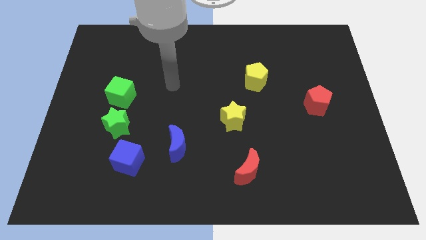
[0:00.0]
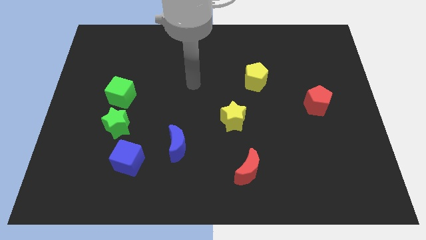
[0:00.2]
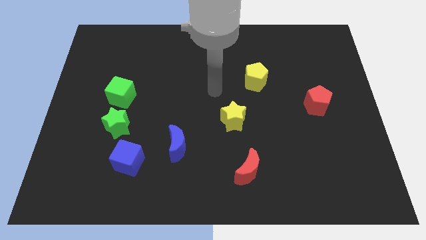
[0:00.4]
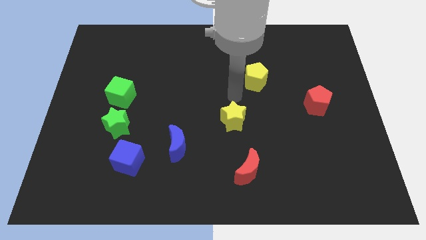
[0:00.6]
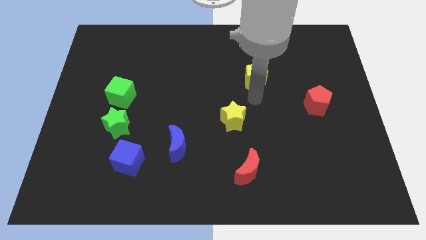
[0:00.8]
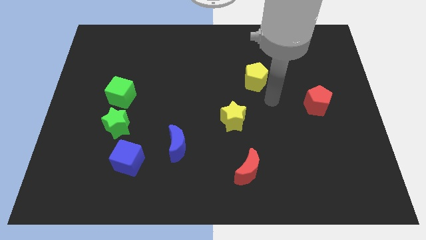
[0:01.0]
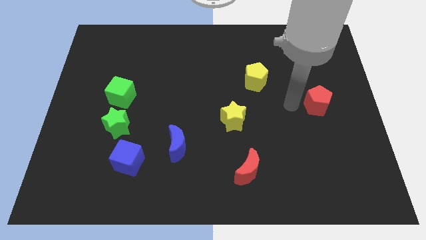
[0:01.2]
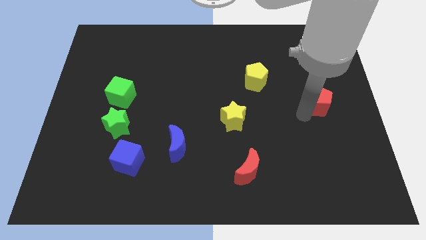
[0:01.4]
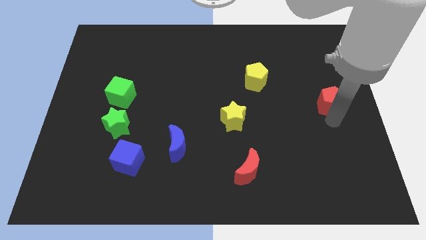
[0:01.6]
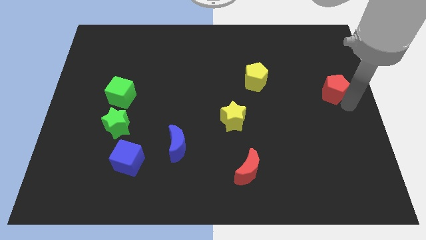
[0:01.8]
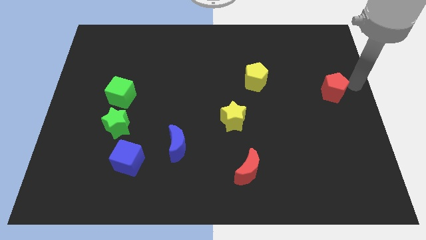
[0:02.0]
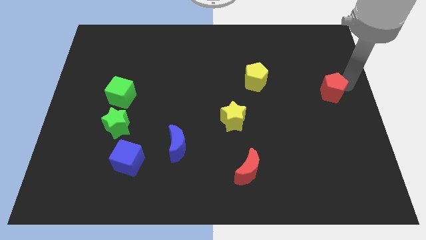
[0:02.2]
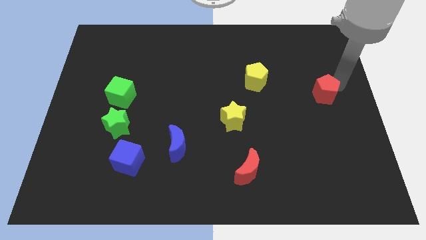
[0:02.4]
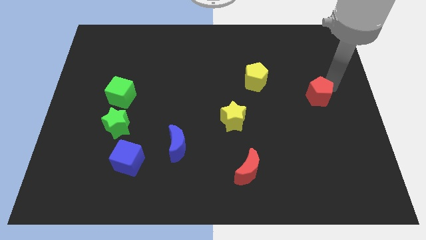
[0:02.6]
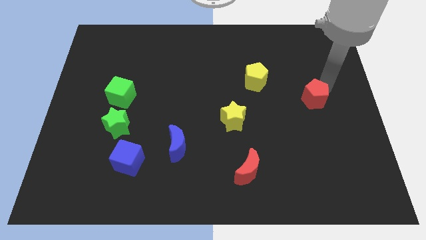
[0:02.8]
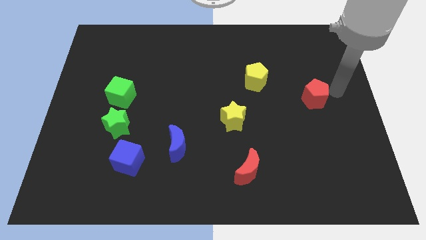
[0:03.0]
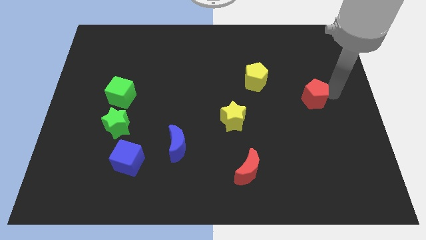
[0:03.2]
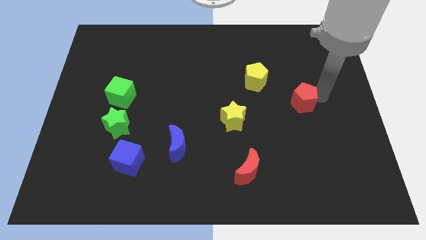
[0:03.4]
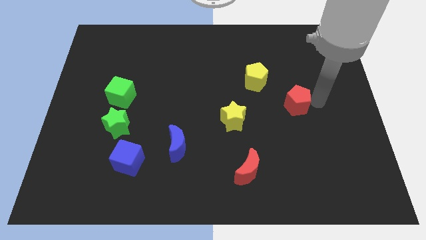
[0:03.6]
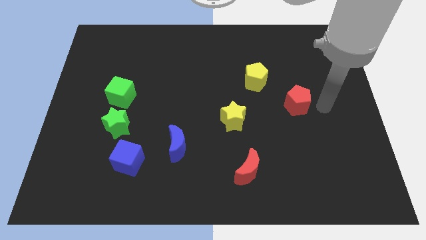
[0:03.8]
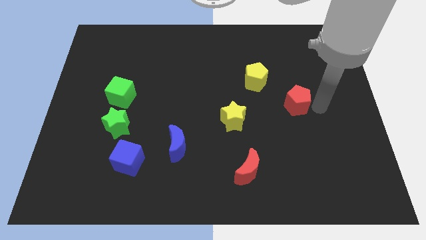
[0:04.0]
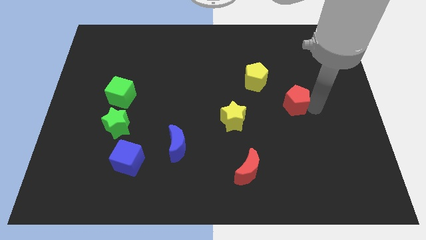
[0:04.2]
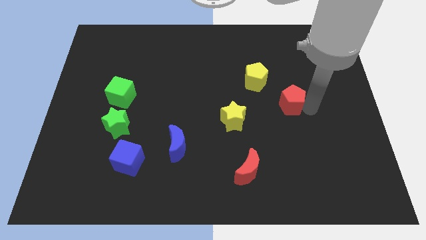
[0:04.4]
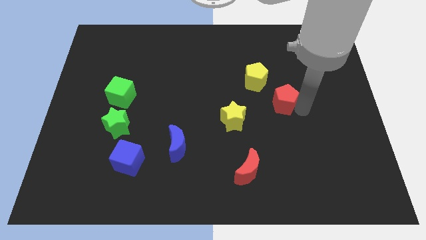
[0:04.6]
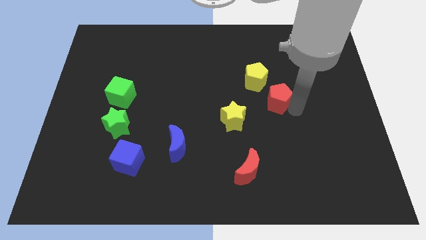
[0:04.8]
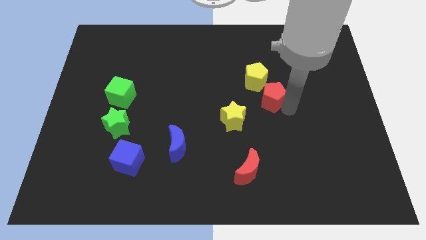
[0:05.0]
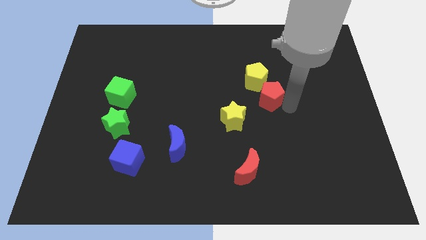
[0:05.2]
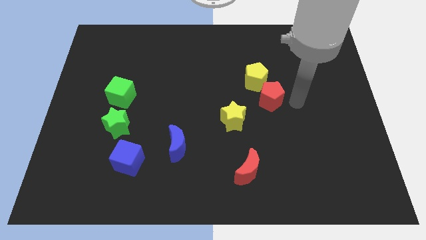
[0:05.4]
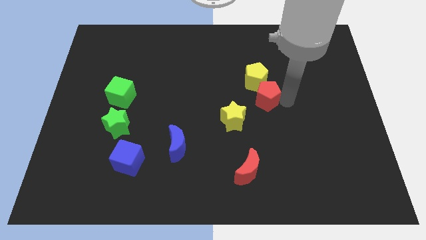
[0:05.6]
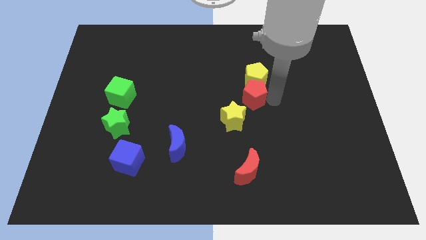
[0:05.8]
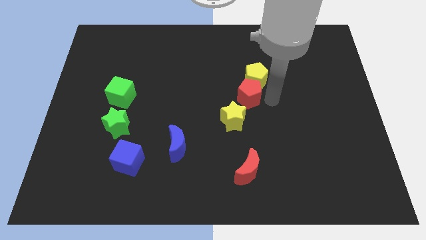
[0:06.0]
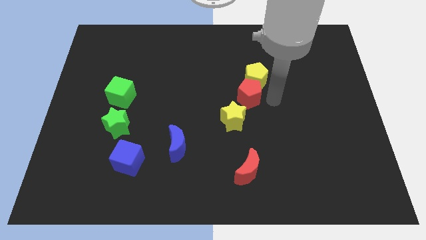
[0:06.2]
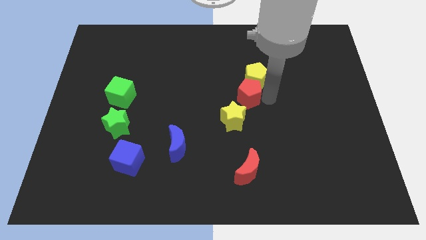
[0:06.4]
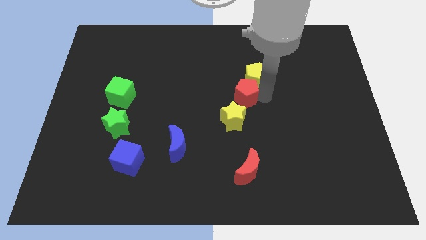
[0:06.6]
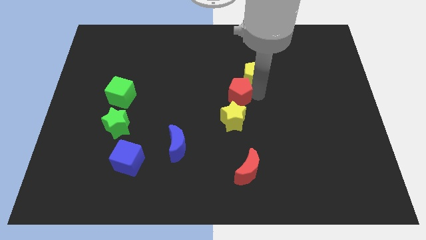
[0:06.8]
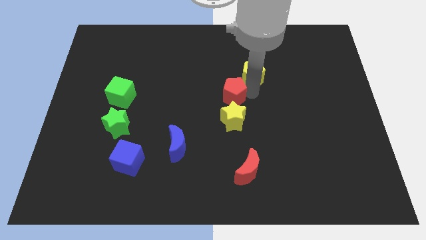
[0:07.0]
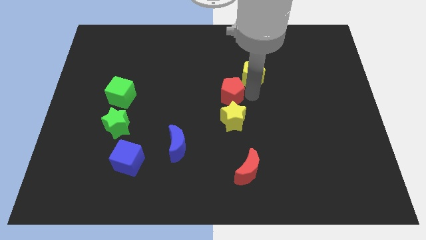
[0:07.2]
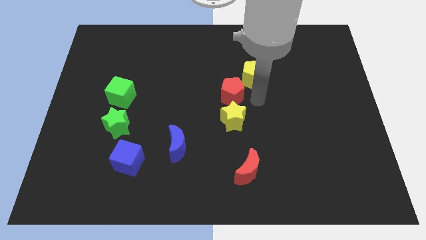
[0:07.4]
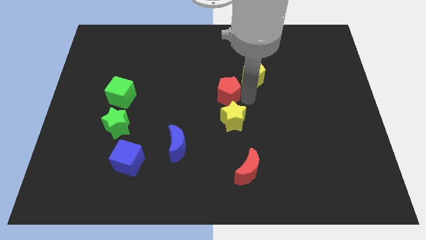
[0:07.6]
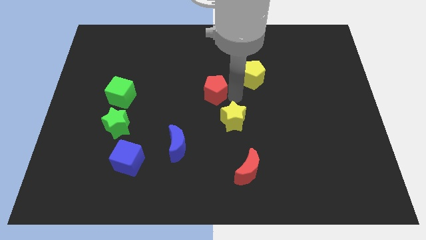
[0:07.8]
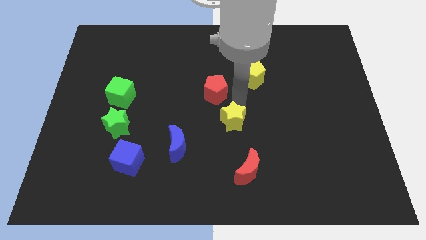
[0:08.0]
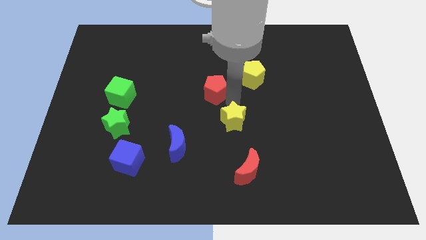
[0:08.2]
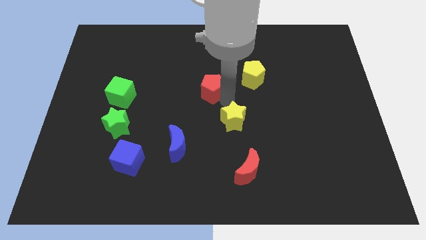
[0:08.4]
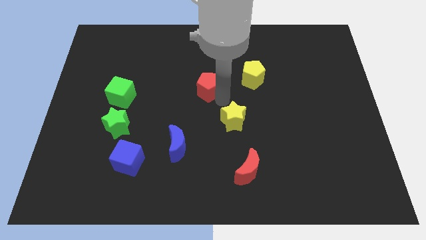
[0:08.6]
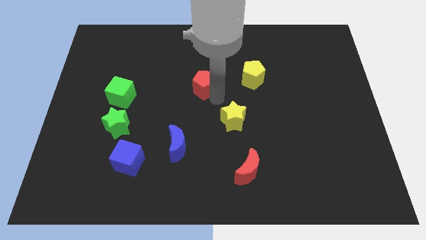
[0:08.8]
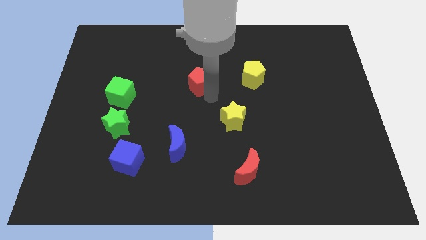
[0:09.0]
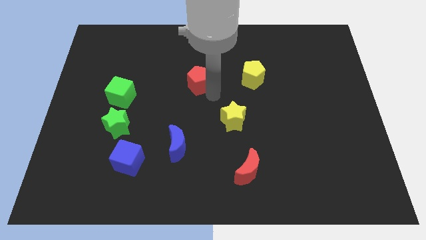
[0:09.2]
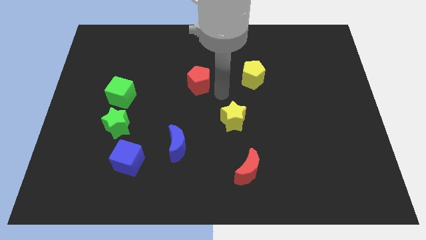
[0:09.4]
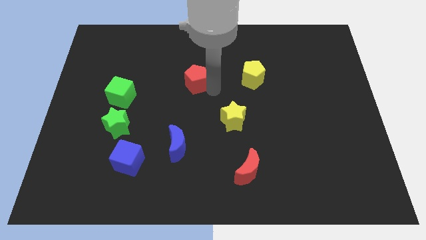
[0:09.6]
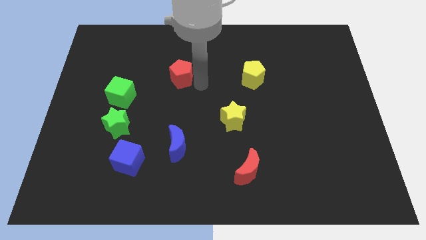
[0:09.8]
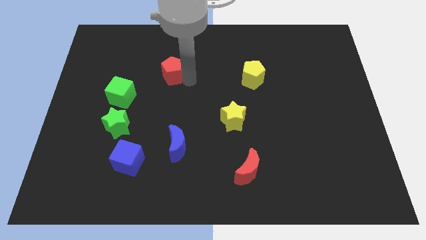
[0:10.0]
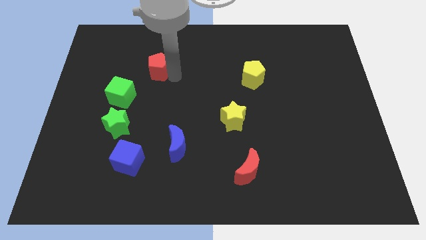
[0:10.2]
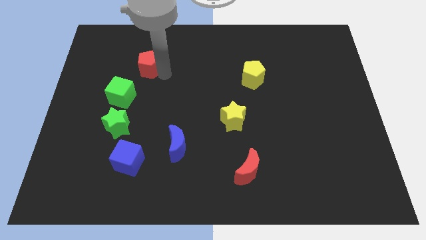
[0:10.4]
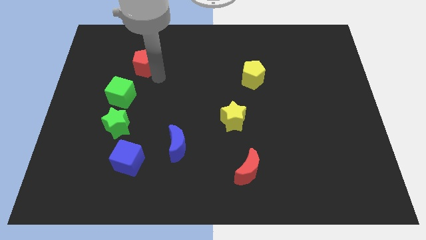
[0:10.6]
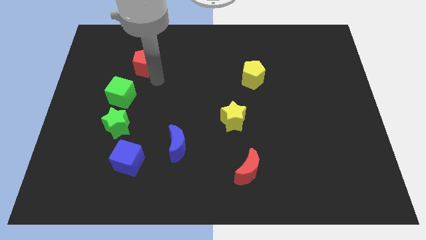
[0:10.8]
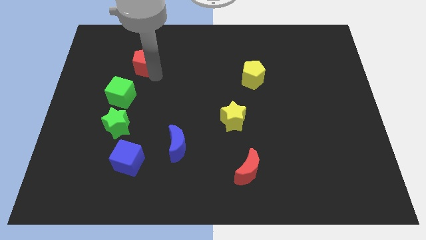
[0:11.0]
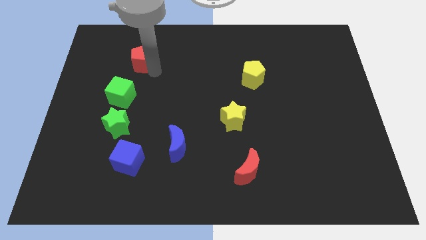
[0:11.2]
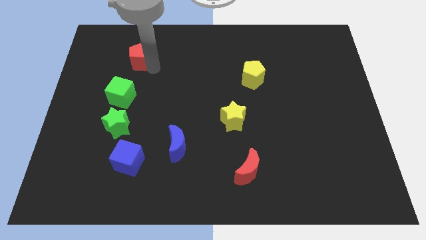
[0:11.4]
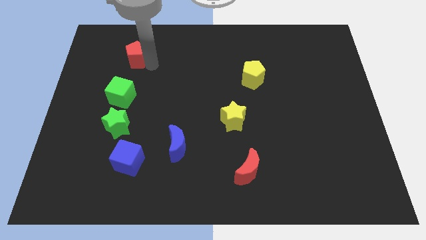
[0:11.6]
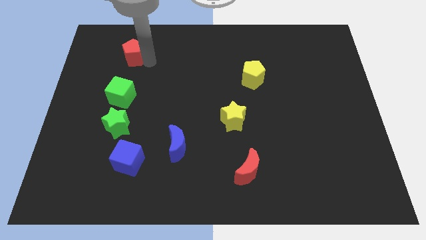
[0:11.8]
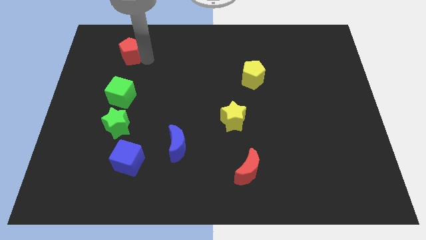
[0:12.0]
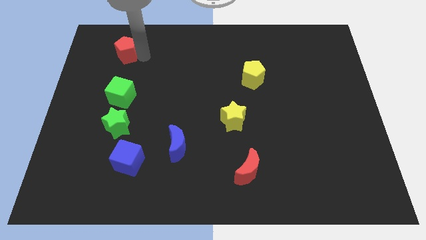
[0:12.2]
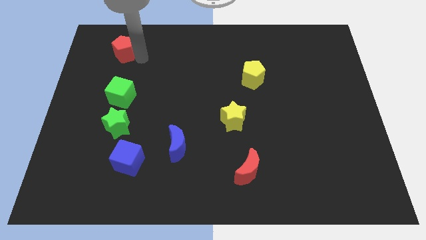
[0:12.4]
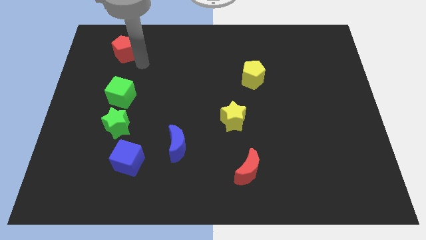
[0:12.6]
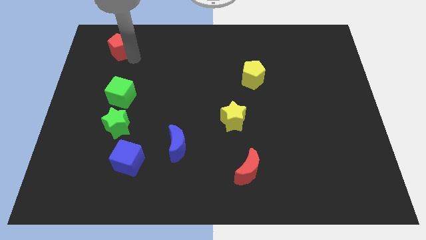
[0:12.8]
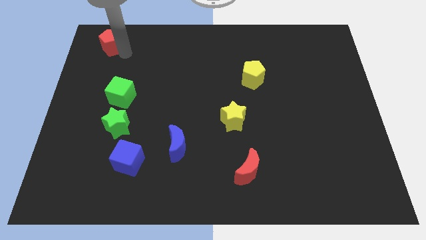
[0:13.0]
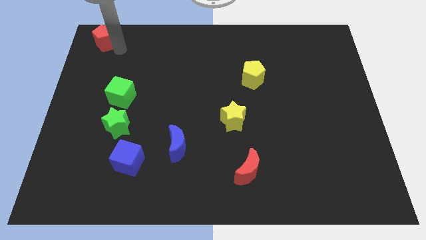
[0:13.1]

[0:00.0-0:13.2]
move the red pentagon to the top left of the board
